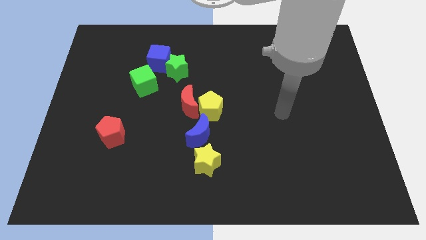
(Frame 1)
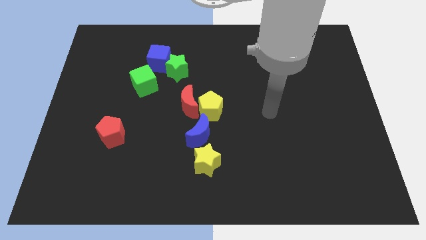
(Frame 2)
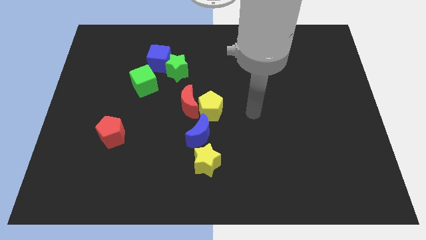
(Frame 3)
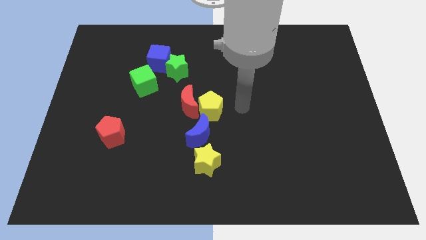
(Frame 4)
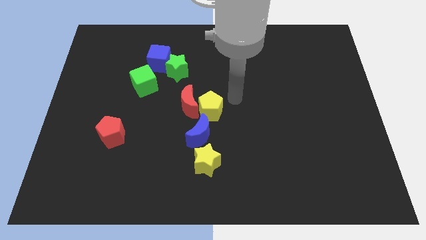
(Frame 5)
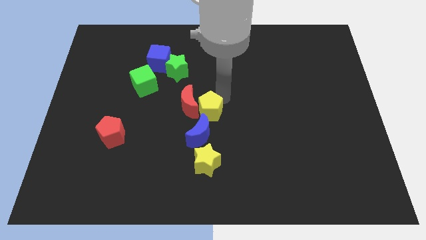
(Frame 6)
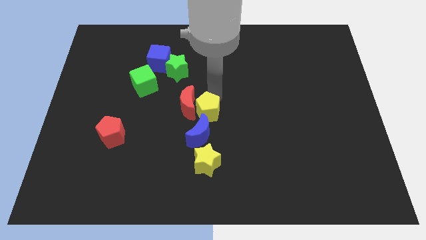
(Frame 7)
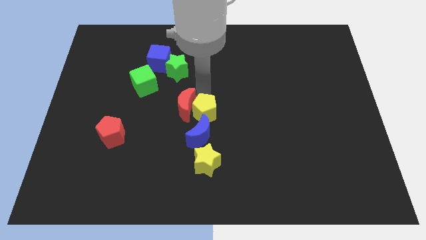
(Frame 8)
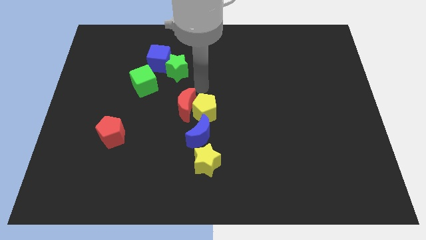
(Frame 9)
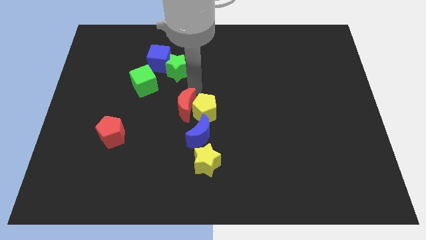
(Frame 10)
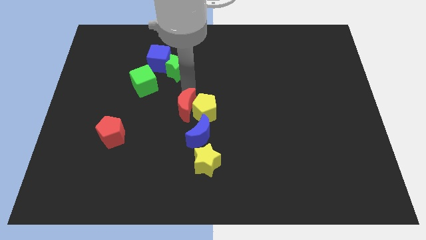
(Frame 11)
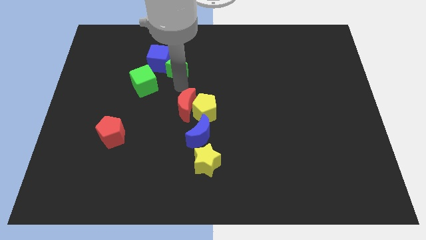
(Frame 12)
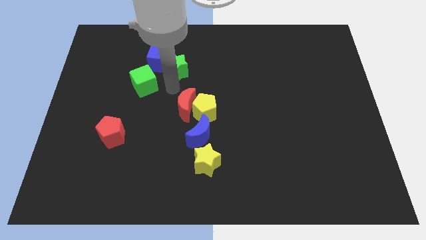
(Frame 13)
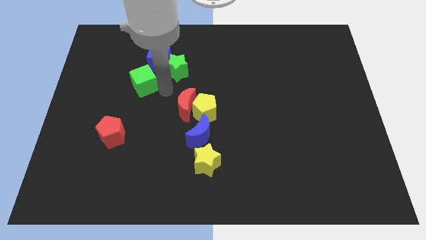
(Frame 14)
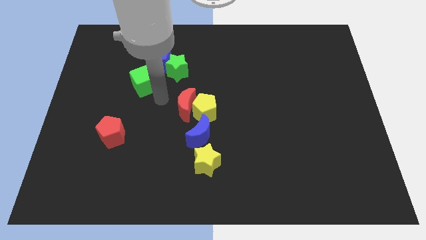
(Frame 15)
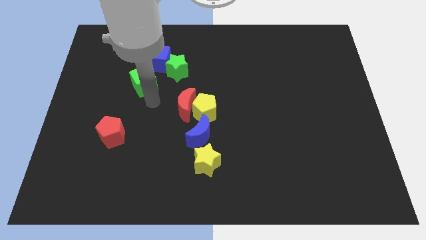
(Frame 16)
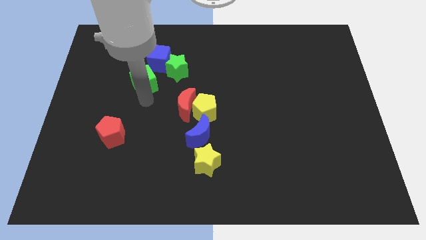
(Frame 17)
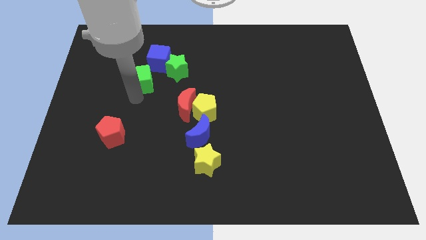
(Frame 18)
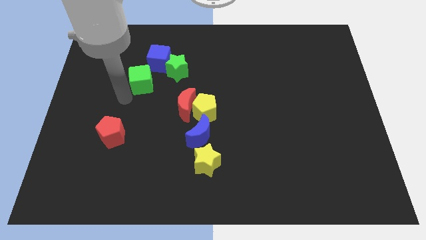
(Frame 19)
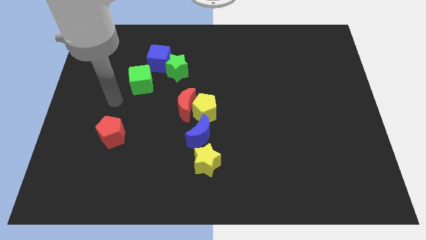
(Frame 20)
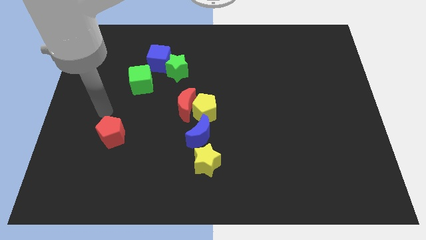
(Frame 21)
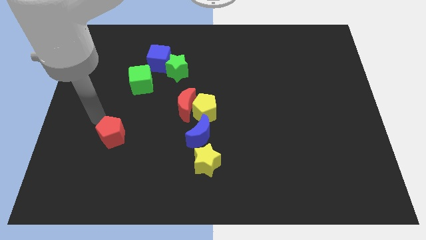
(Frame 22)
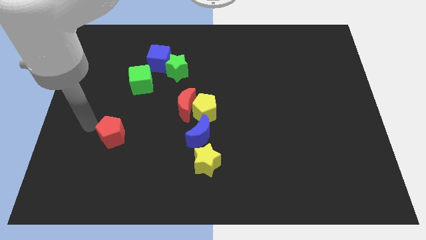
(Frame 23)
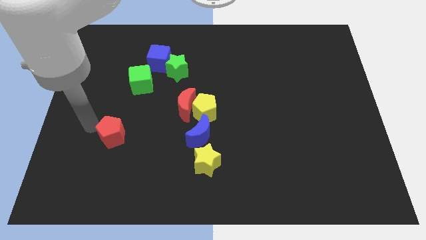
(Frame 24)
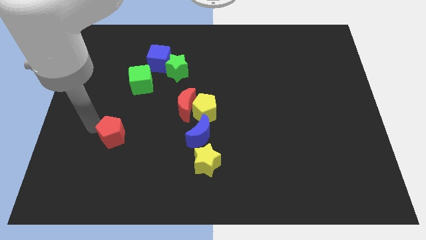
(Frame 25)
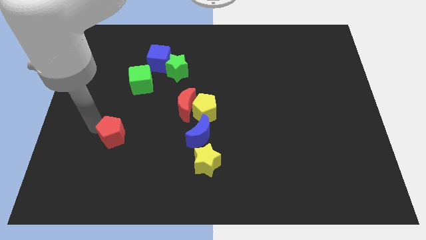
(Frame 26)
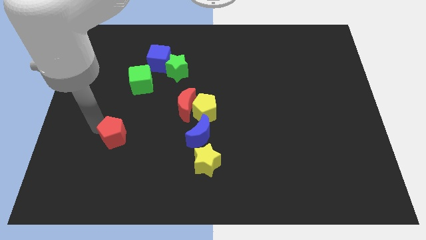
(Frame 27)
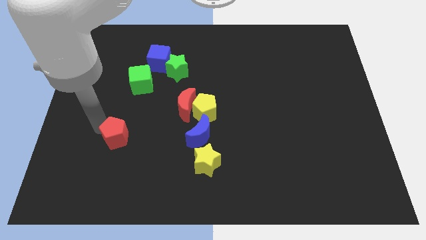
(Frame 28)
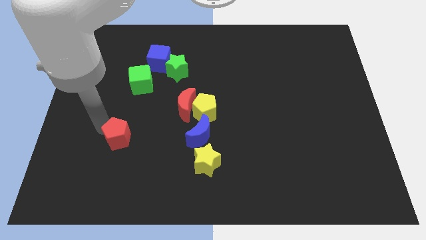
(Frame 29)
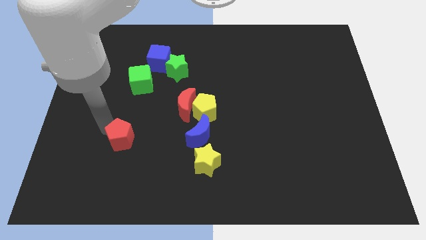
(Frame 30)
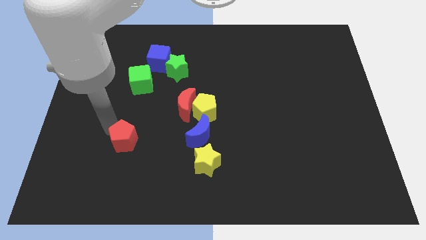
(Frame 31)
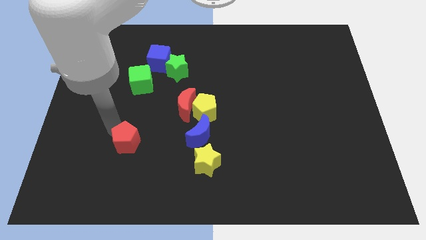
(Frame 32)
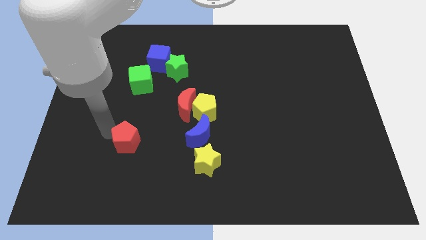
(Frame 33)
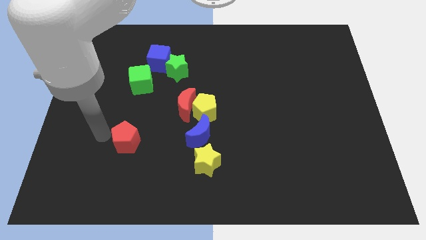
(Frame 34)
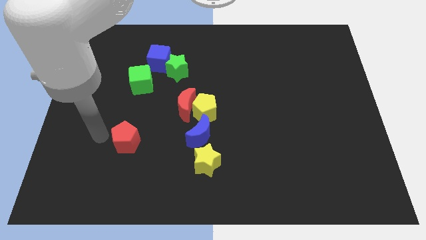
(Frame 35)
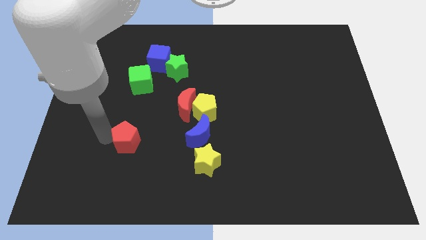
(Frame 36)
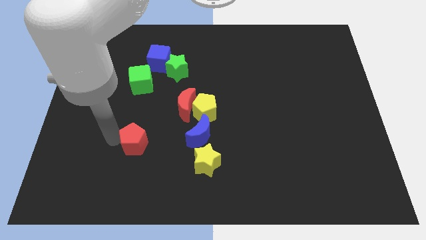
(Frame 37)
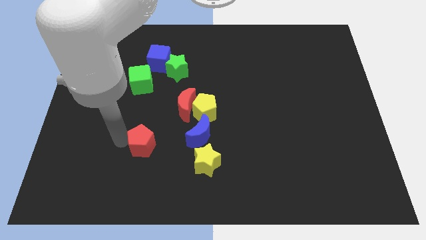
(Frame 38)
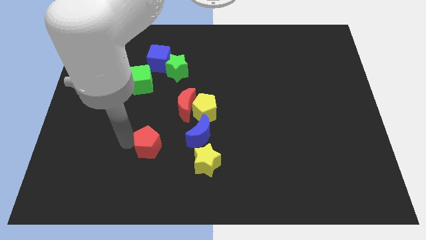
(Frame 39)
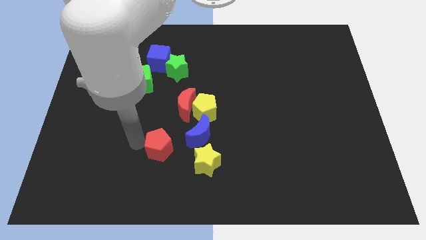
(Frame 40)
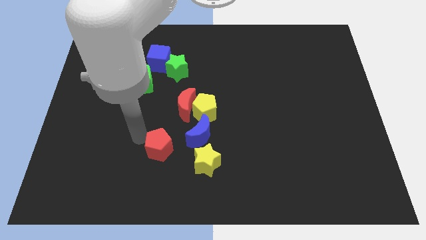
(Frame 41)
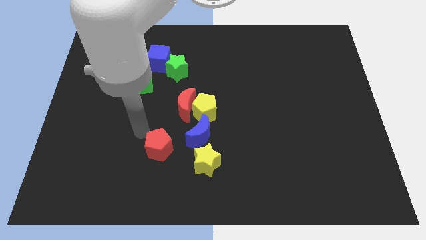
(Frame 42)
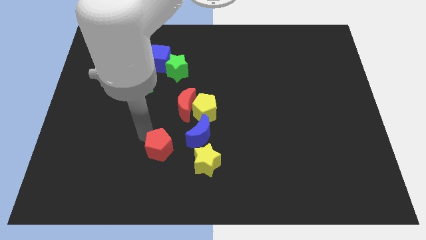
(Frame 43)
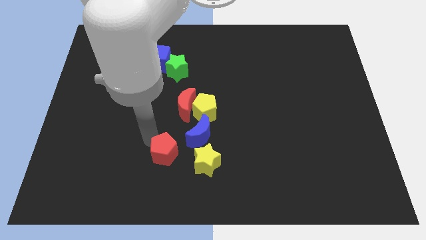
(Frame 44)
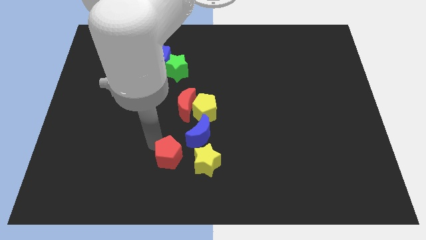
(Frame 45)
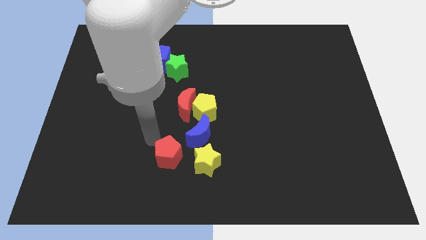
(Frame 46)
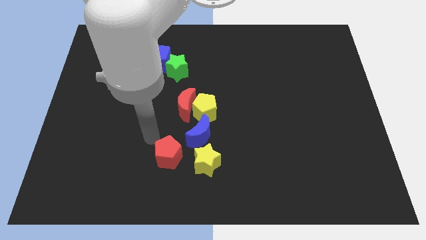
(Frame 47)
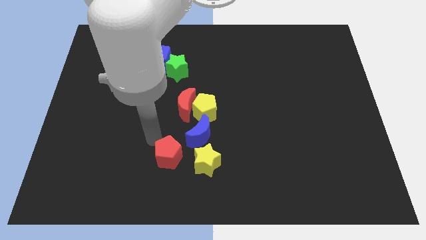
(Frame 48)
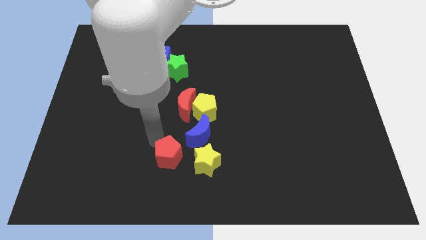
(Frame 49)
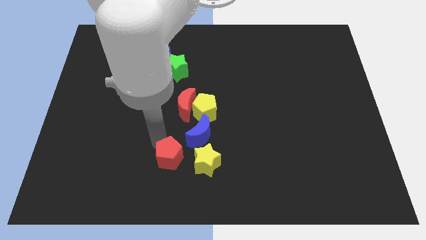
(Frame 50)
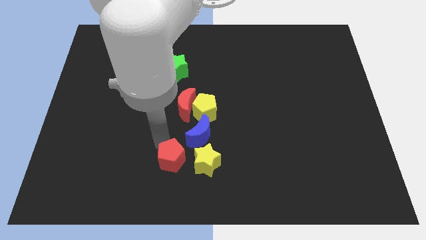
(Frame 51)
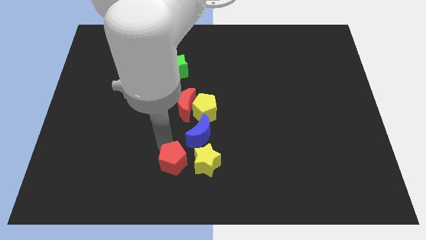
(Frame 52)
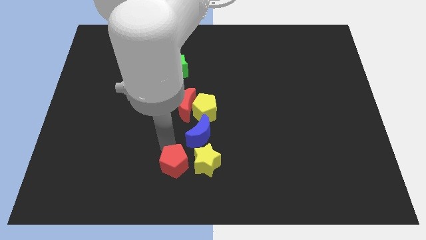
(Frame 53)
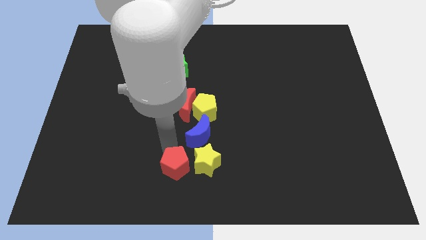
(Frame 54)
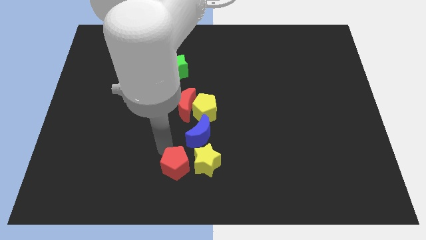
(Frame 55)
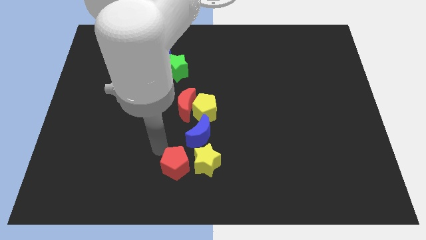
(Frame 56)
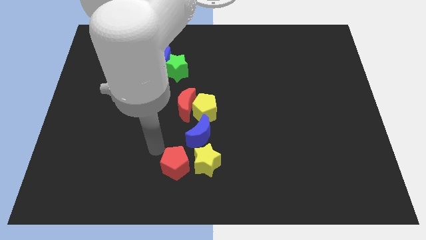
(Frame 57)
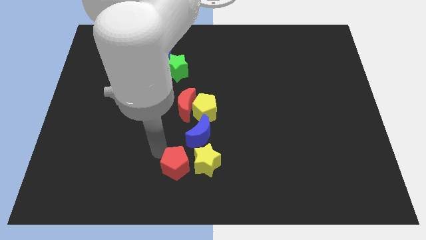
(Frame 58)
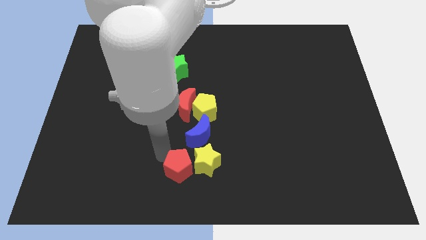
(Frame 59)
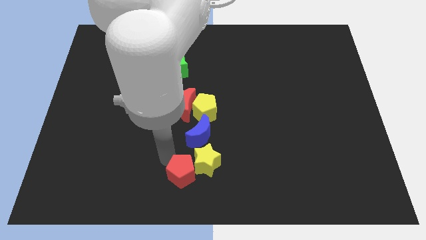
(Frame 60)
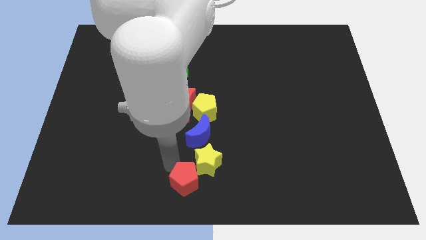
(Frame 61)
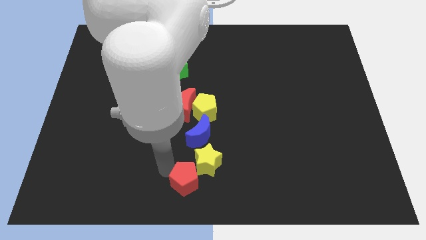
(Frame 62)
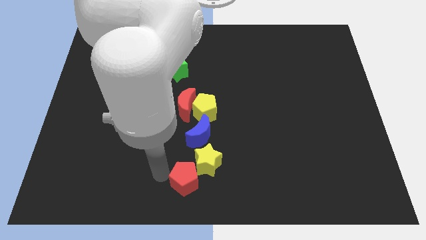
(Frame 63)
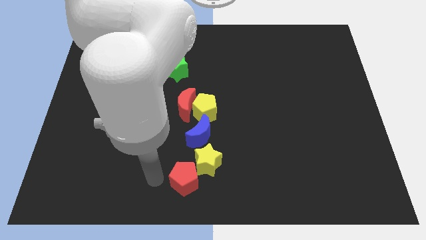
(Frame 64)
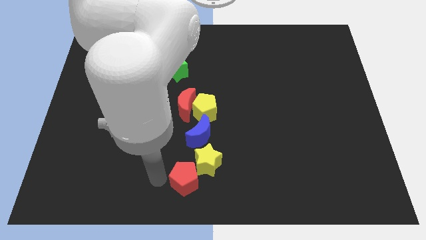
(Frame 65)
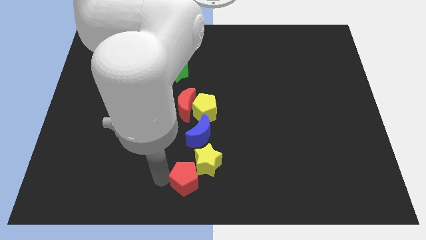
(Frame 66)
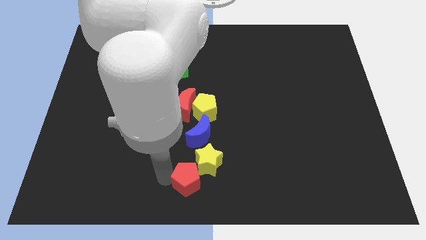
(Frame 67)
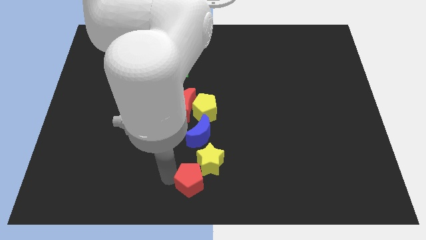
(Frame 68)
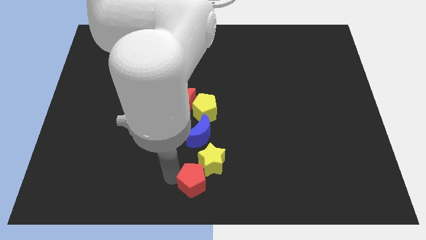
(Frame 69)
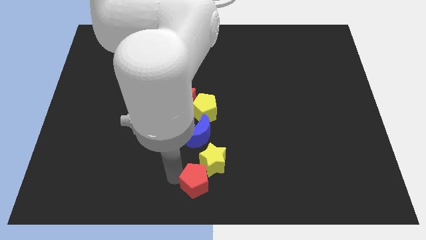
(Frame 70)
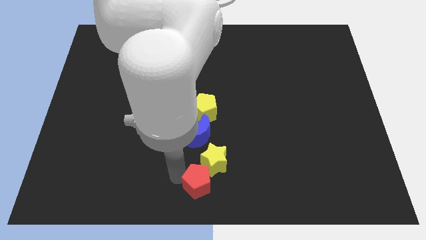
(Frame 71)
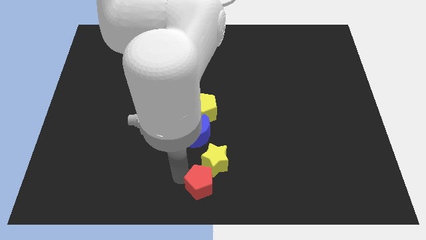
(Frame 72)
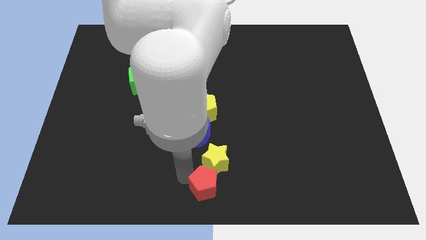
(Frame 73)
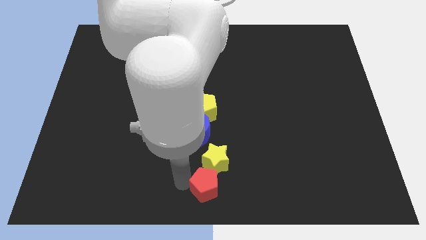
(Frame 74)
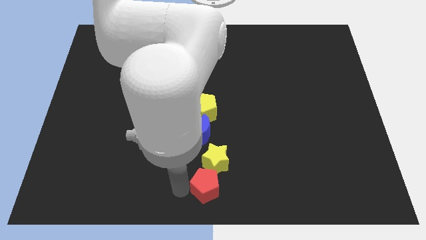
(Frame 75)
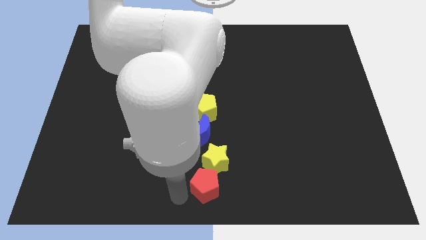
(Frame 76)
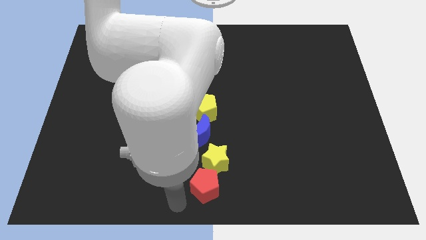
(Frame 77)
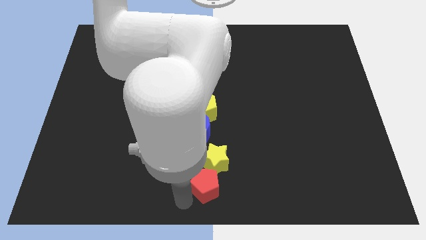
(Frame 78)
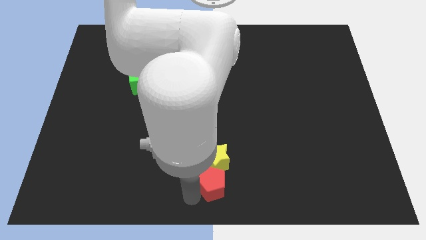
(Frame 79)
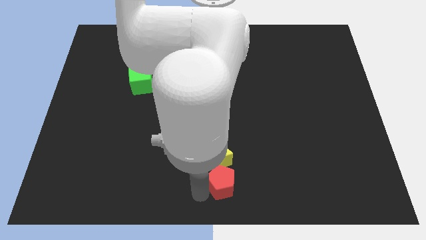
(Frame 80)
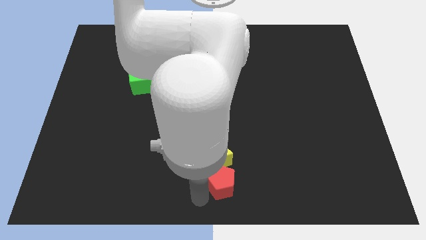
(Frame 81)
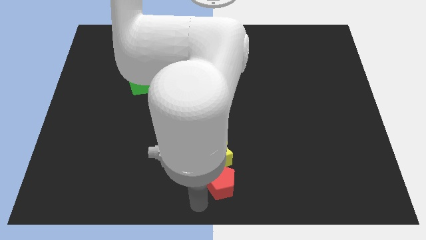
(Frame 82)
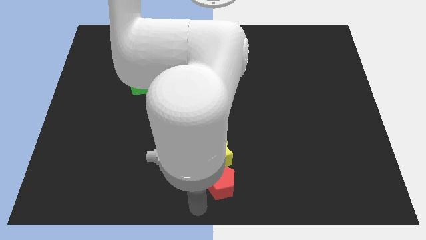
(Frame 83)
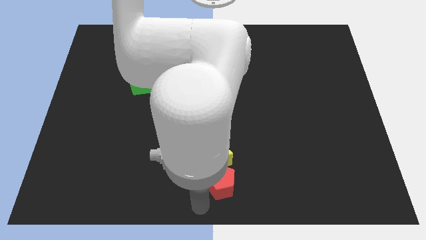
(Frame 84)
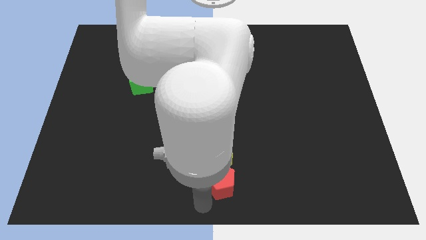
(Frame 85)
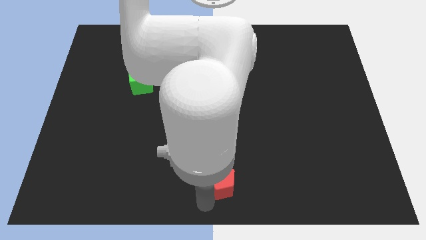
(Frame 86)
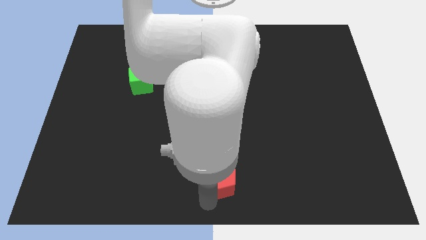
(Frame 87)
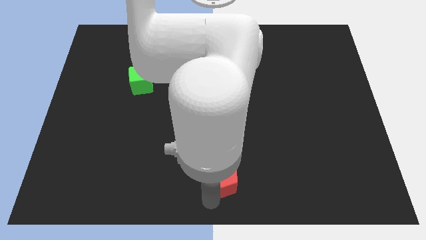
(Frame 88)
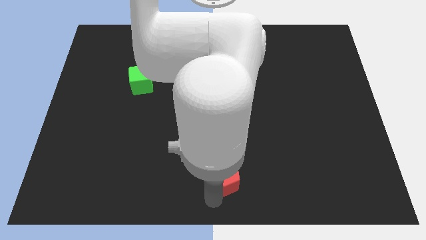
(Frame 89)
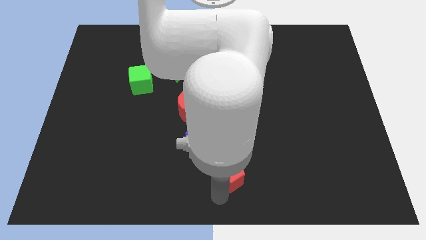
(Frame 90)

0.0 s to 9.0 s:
move the red pentagon right
